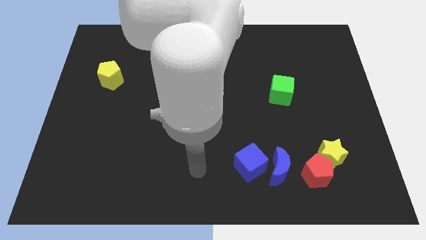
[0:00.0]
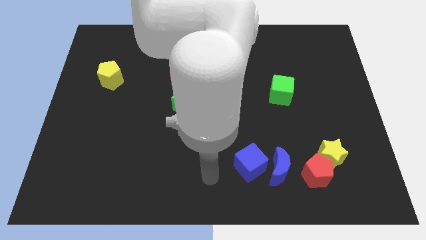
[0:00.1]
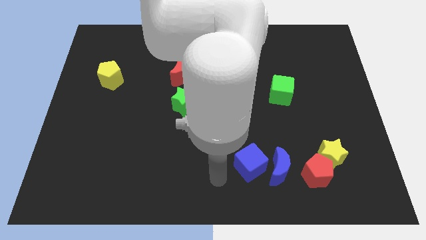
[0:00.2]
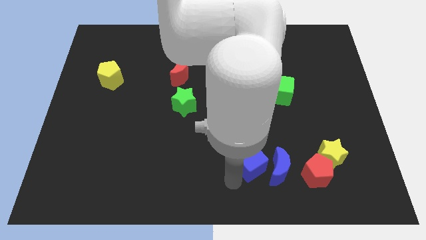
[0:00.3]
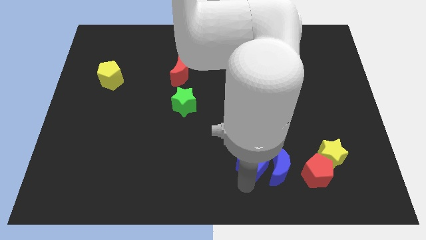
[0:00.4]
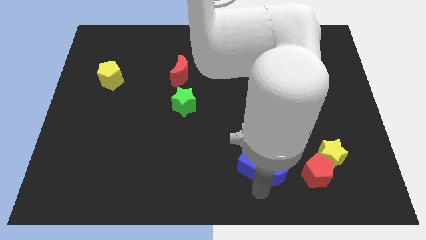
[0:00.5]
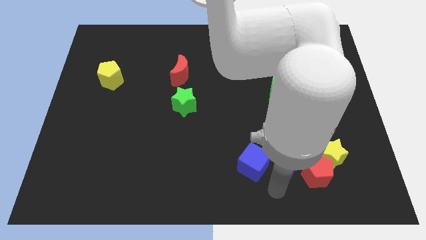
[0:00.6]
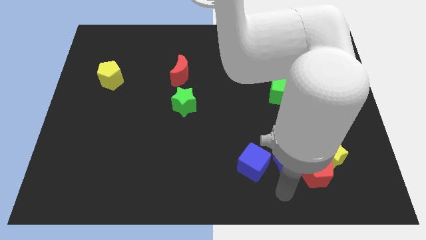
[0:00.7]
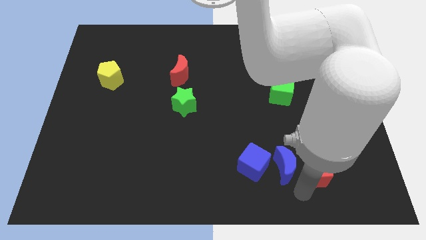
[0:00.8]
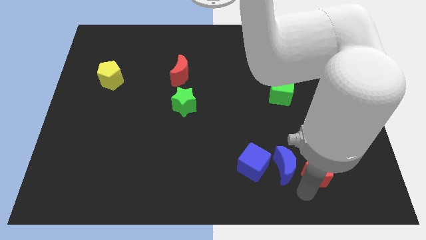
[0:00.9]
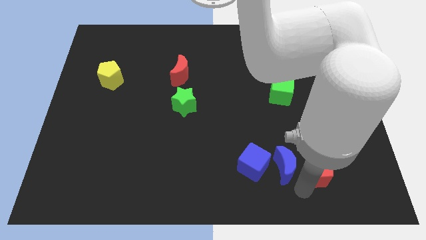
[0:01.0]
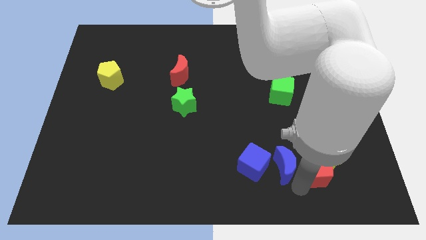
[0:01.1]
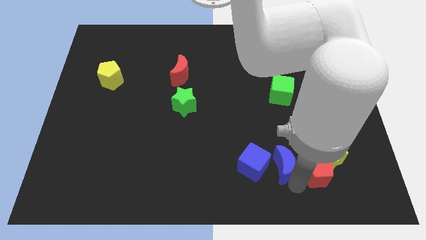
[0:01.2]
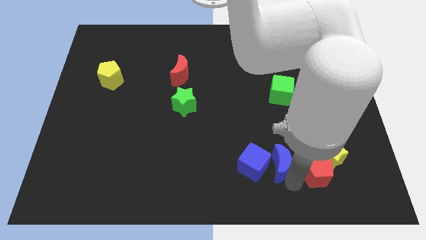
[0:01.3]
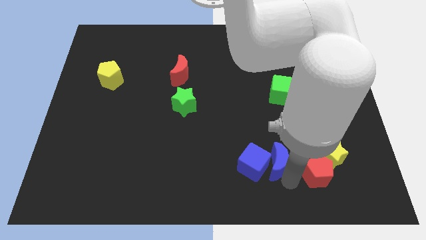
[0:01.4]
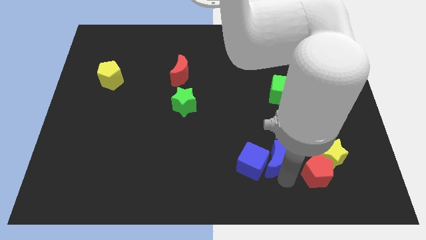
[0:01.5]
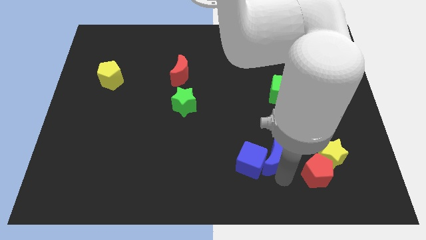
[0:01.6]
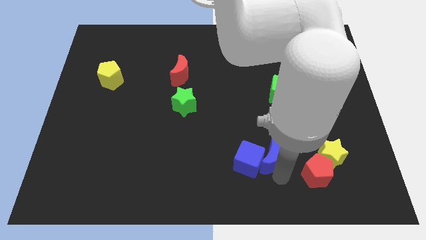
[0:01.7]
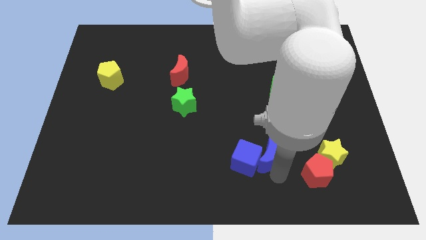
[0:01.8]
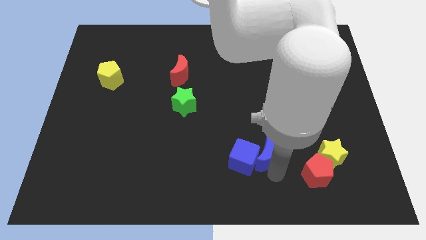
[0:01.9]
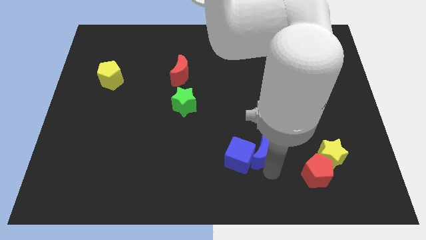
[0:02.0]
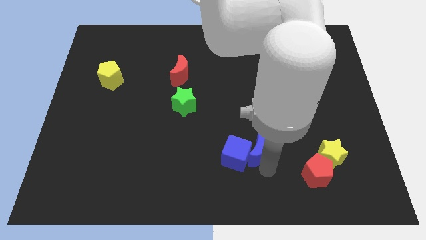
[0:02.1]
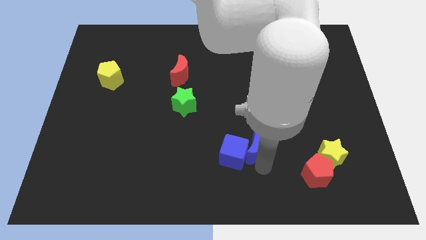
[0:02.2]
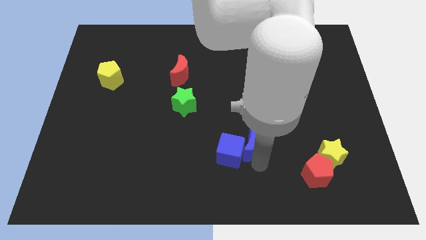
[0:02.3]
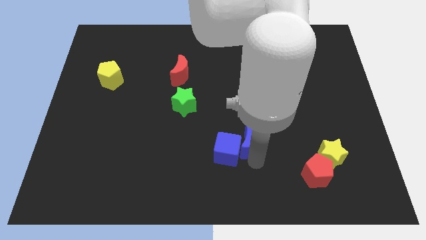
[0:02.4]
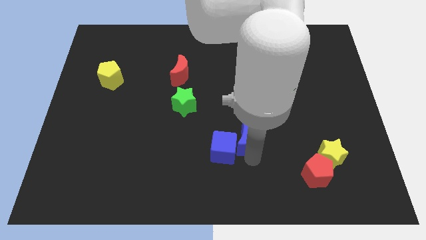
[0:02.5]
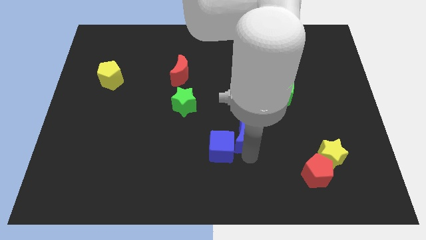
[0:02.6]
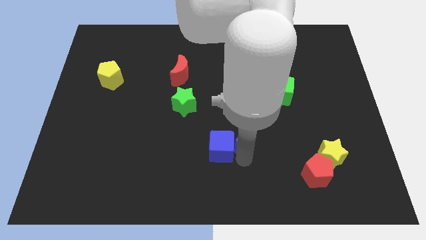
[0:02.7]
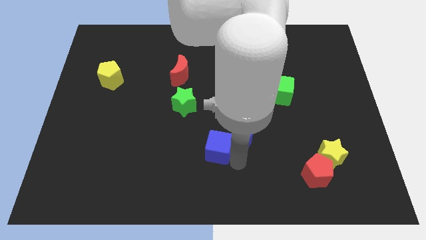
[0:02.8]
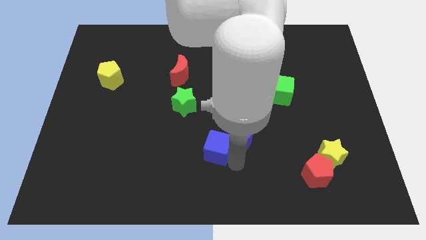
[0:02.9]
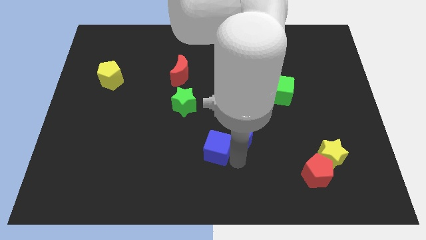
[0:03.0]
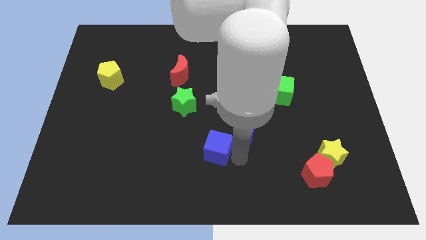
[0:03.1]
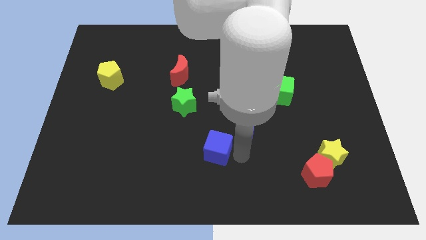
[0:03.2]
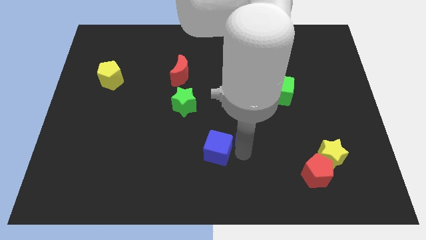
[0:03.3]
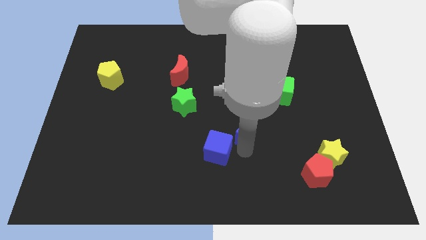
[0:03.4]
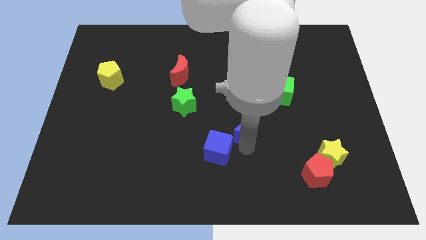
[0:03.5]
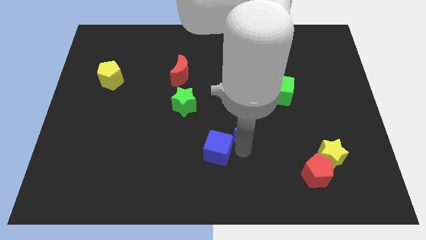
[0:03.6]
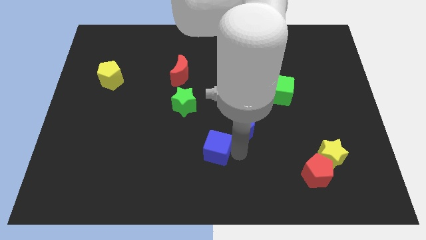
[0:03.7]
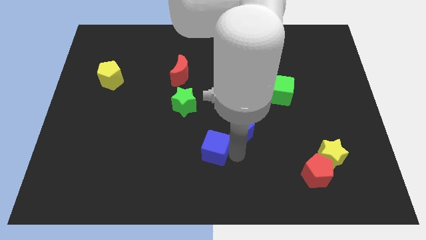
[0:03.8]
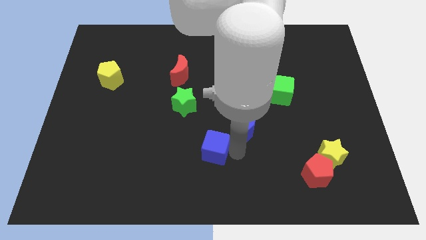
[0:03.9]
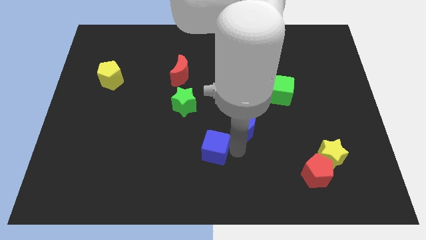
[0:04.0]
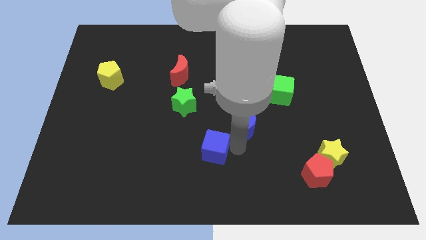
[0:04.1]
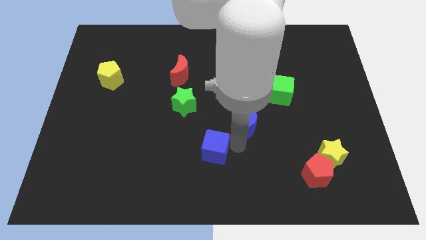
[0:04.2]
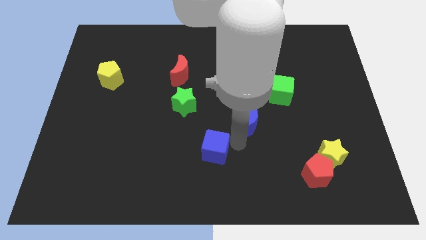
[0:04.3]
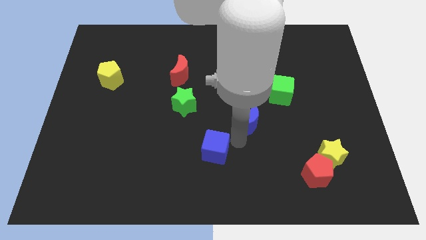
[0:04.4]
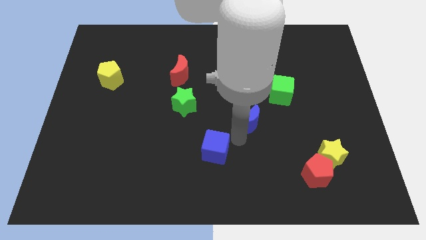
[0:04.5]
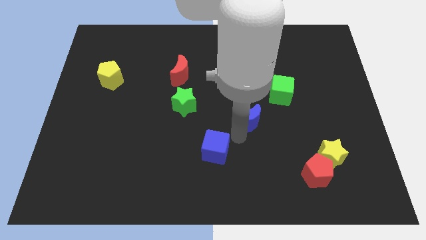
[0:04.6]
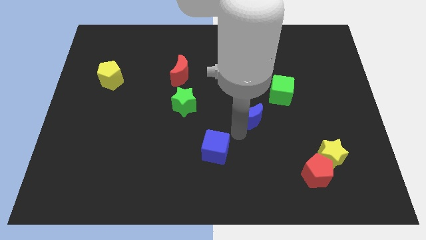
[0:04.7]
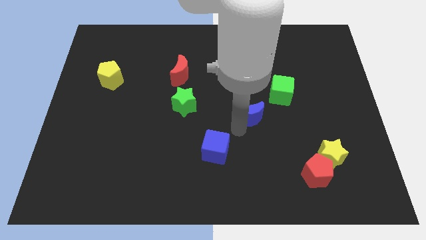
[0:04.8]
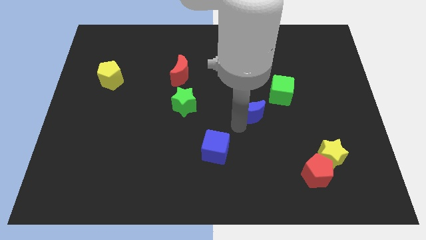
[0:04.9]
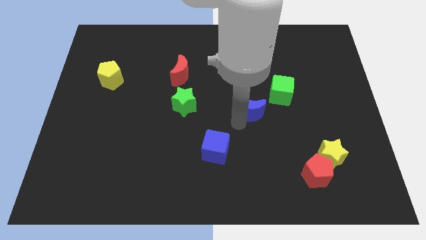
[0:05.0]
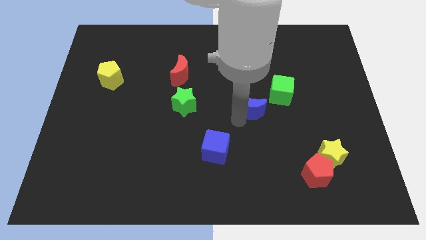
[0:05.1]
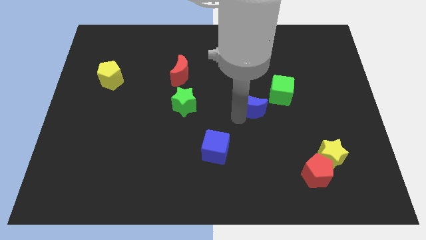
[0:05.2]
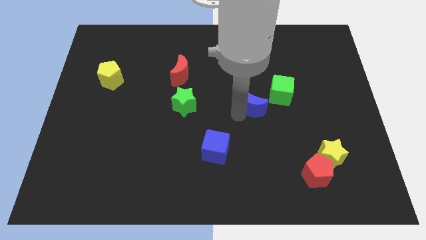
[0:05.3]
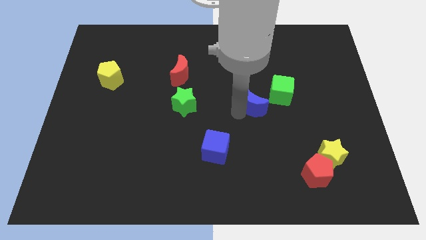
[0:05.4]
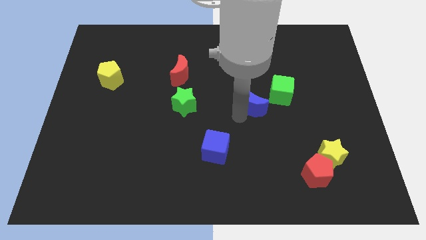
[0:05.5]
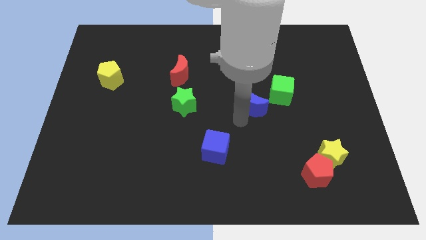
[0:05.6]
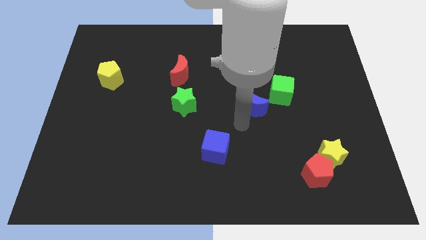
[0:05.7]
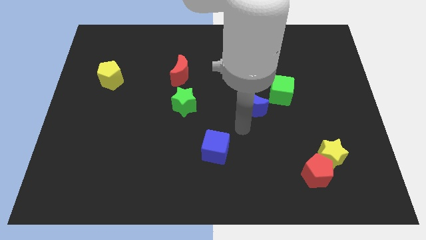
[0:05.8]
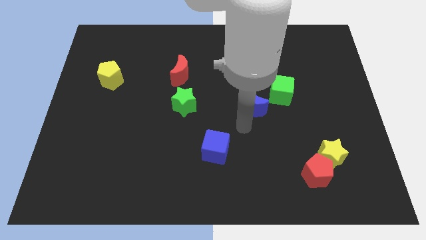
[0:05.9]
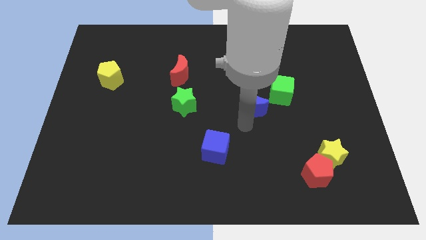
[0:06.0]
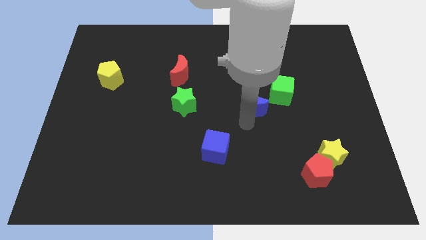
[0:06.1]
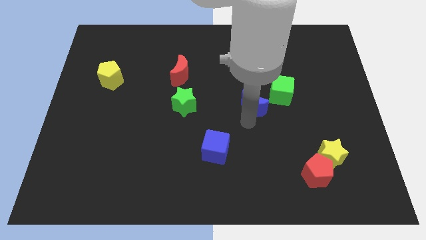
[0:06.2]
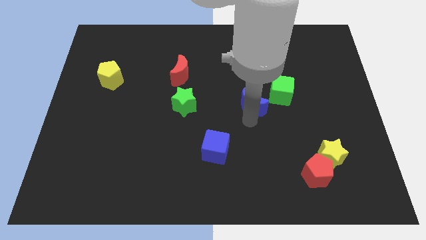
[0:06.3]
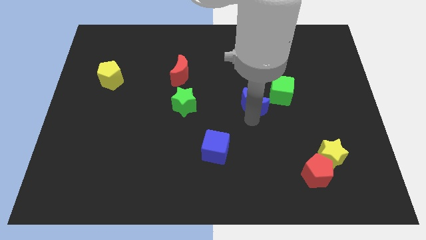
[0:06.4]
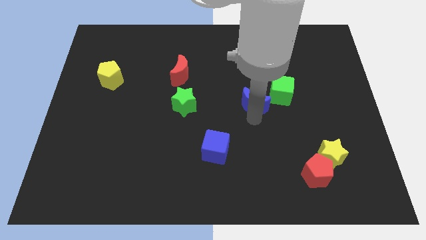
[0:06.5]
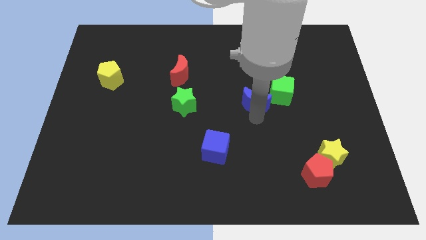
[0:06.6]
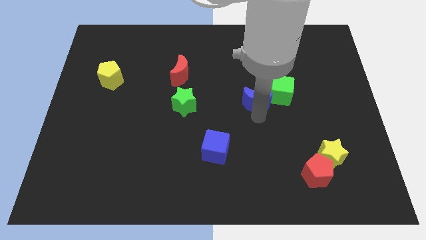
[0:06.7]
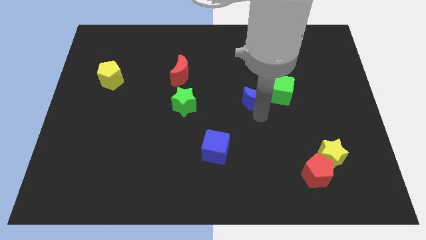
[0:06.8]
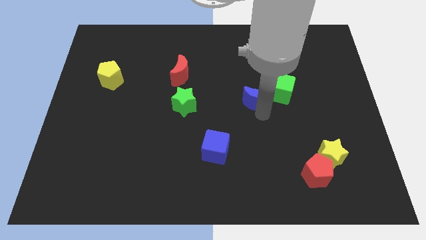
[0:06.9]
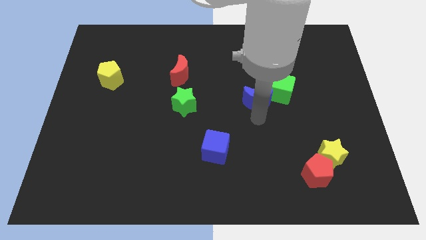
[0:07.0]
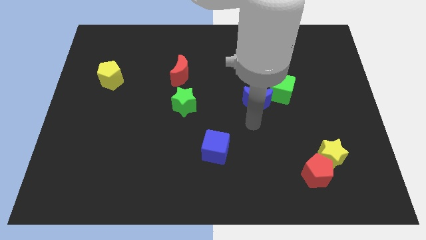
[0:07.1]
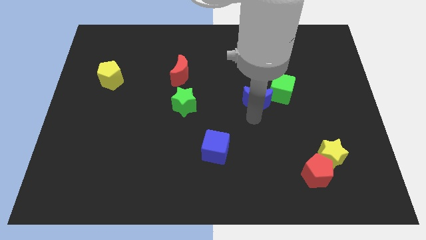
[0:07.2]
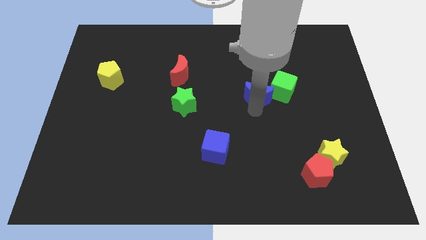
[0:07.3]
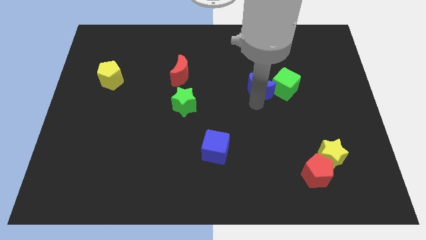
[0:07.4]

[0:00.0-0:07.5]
slide the blue moon up

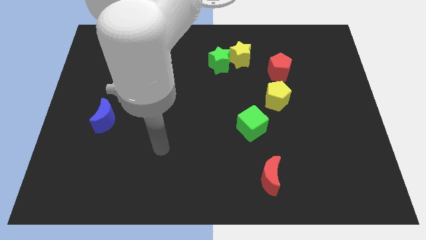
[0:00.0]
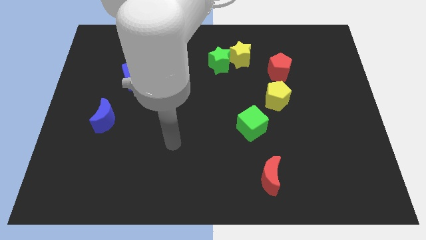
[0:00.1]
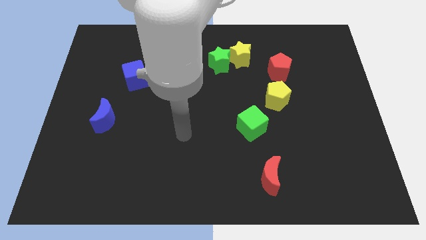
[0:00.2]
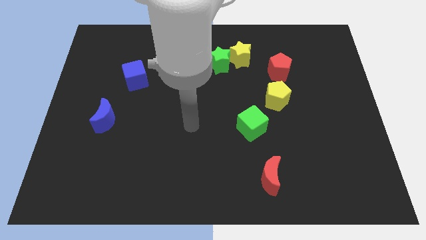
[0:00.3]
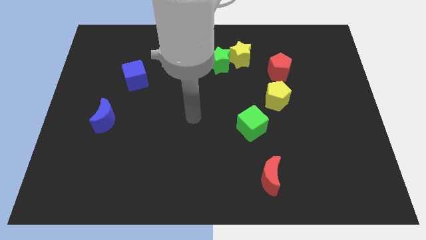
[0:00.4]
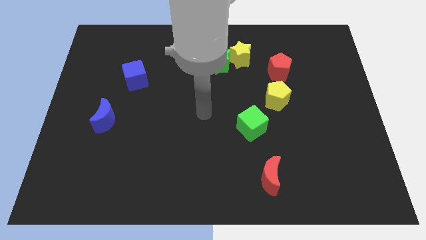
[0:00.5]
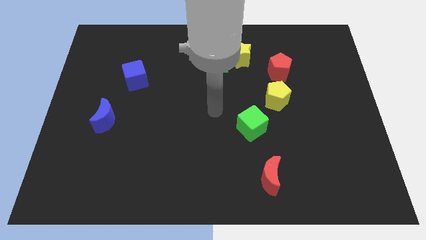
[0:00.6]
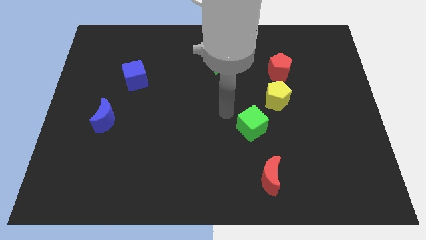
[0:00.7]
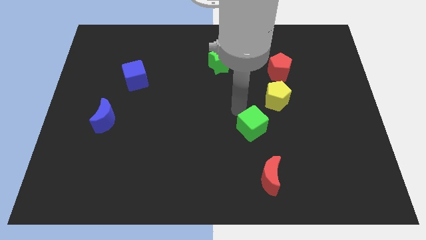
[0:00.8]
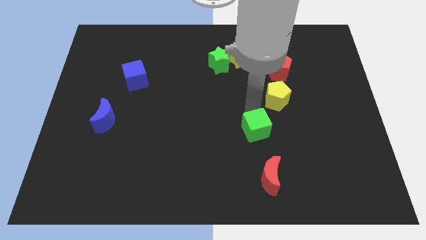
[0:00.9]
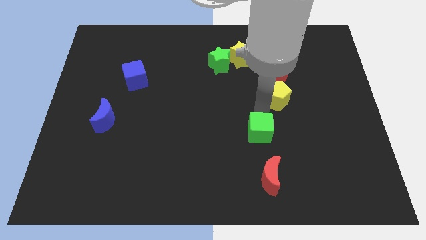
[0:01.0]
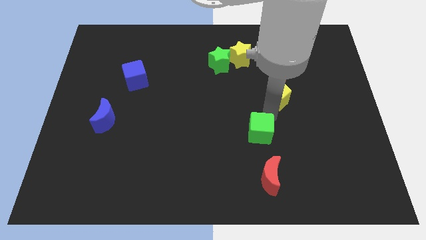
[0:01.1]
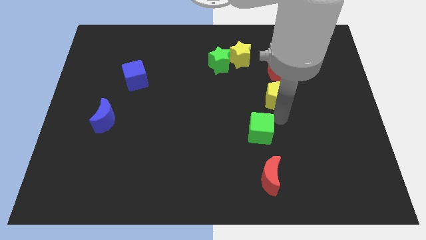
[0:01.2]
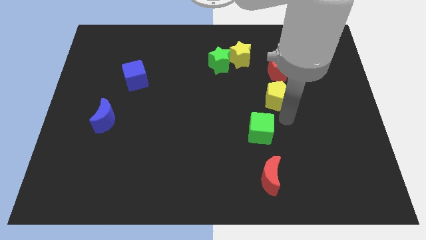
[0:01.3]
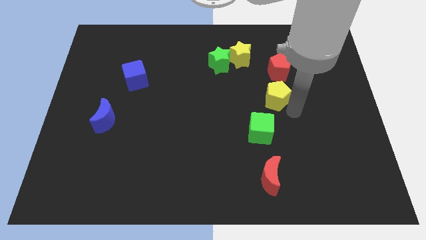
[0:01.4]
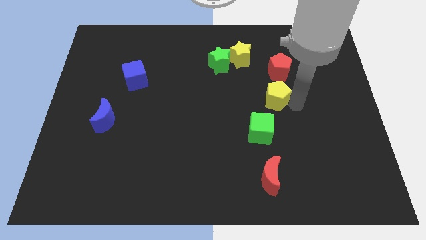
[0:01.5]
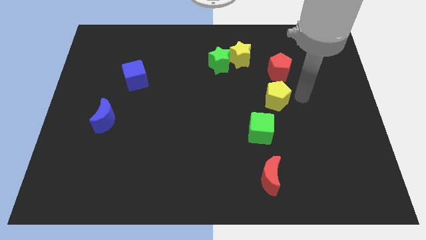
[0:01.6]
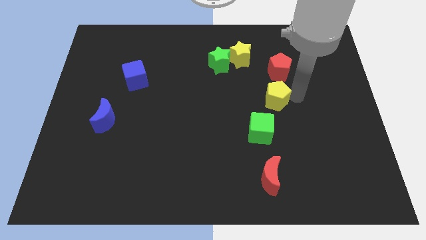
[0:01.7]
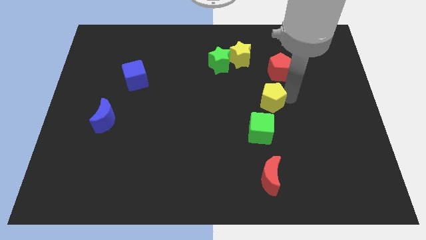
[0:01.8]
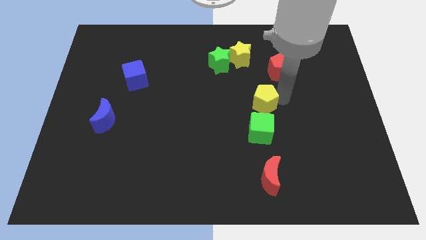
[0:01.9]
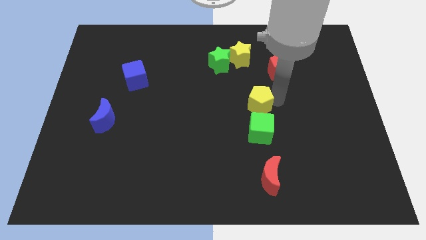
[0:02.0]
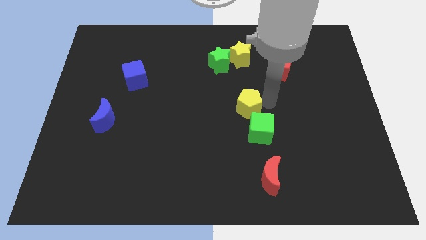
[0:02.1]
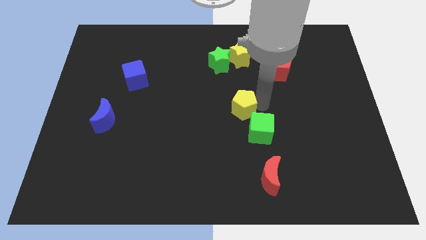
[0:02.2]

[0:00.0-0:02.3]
move the yellow pentagon a little bit left
